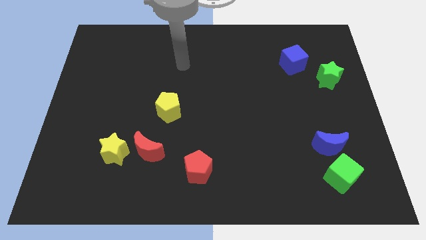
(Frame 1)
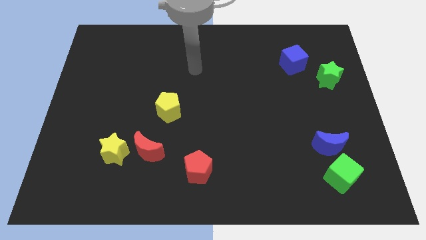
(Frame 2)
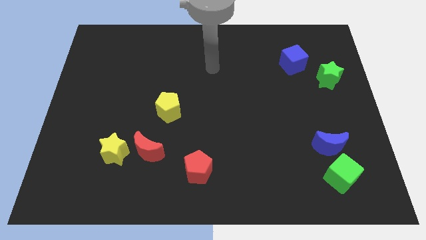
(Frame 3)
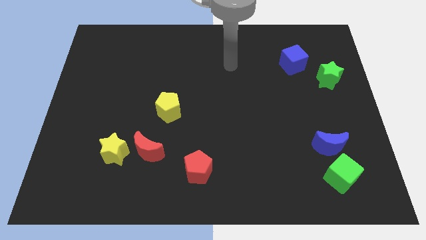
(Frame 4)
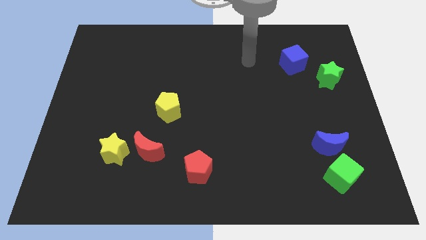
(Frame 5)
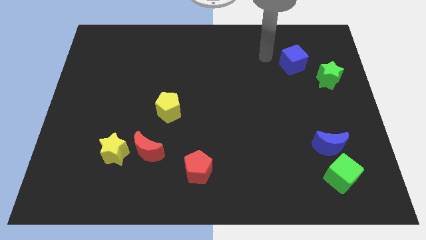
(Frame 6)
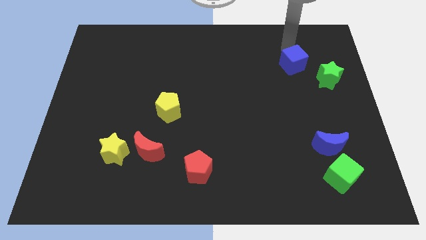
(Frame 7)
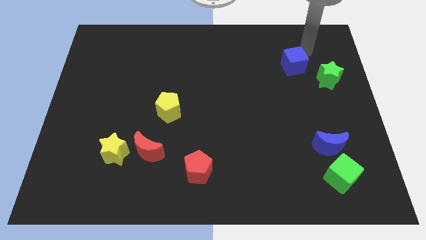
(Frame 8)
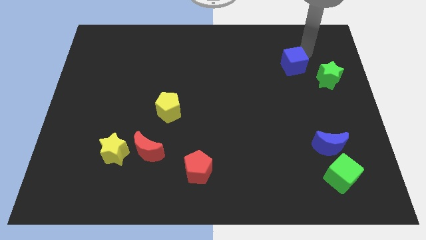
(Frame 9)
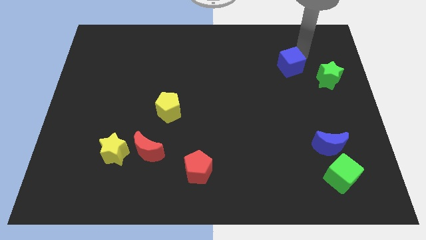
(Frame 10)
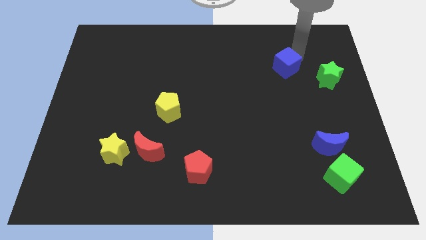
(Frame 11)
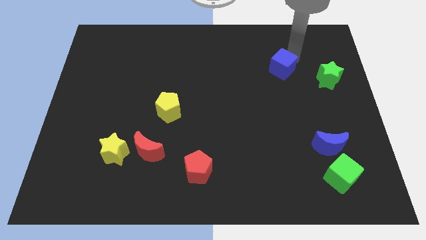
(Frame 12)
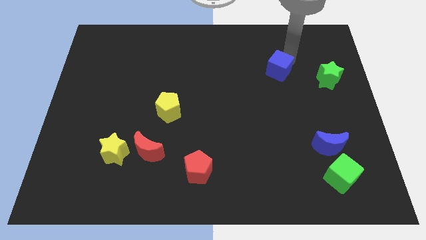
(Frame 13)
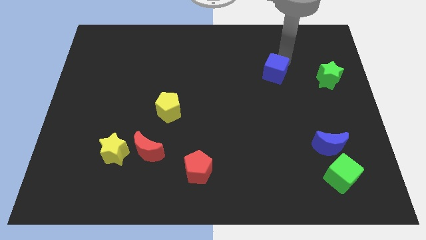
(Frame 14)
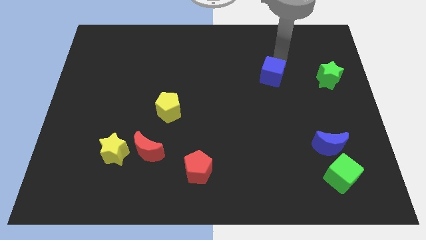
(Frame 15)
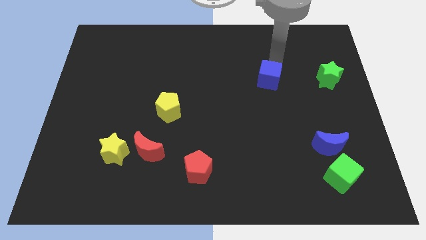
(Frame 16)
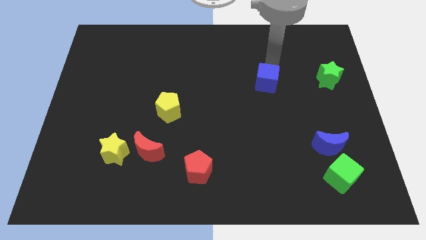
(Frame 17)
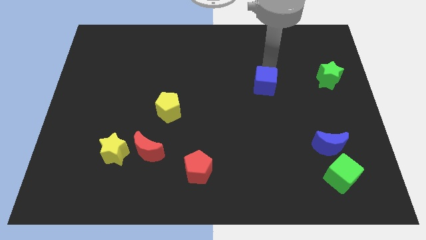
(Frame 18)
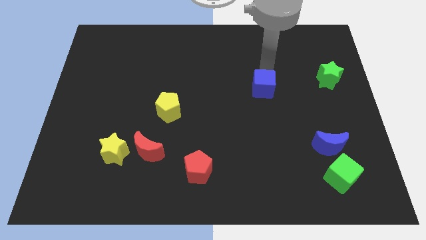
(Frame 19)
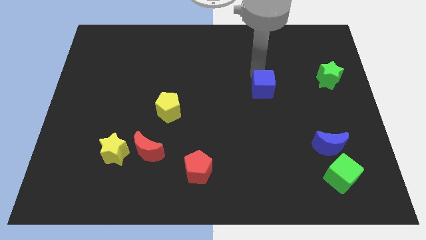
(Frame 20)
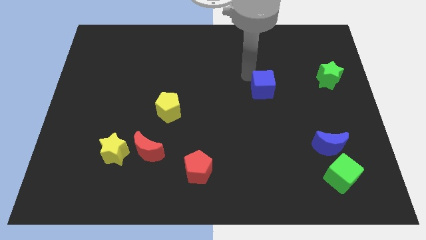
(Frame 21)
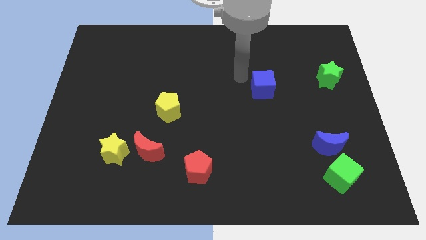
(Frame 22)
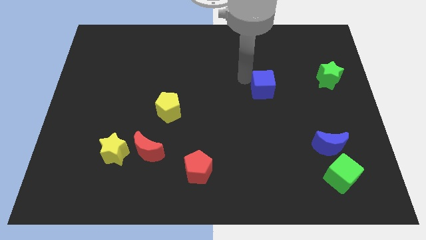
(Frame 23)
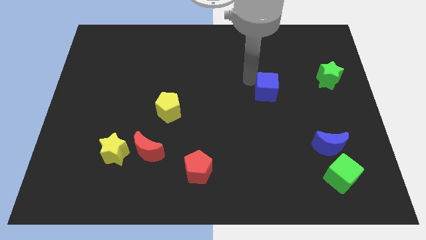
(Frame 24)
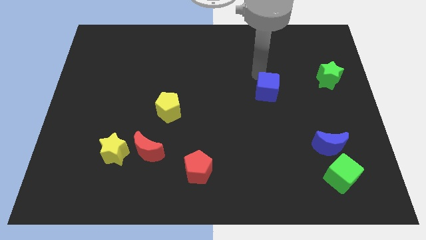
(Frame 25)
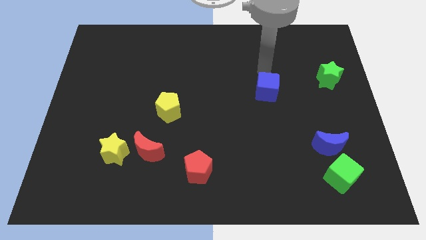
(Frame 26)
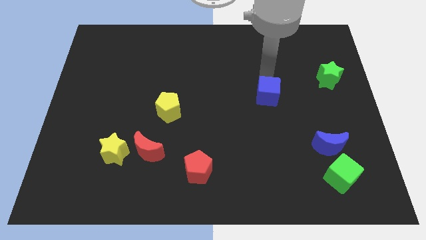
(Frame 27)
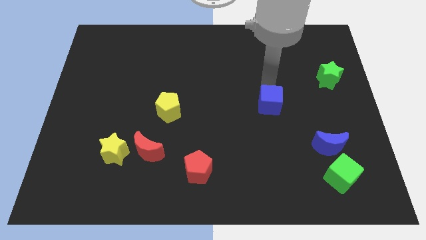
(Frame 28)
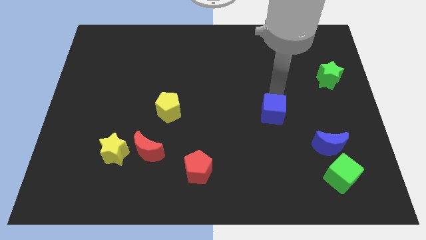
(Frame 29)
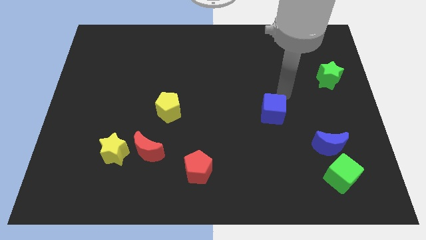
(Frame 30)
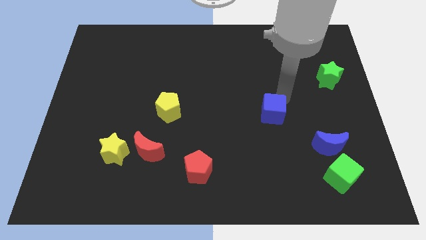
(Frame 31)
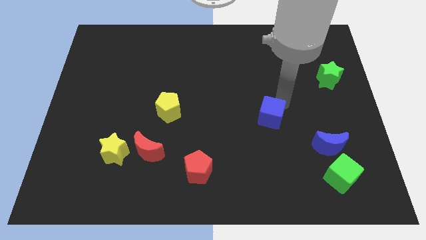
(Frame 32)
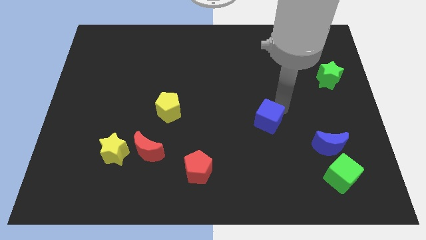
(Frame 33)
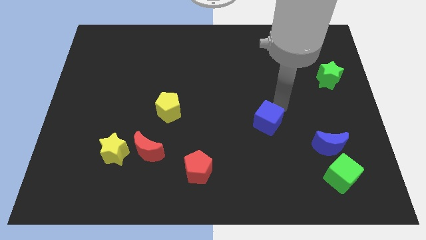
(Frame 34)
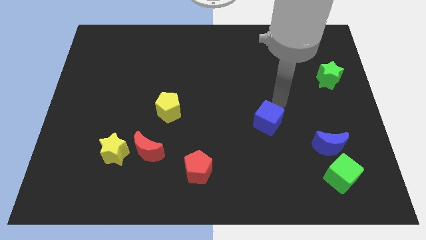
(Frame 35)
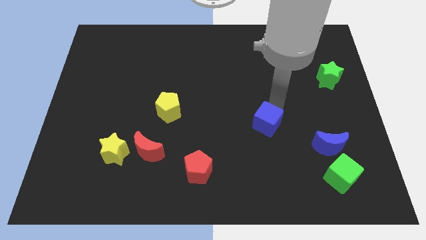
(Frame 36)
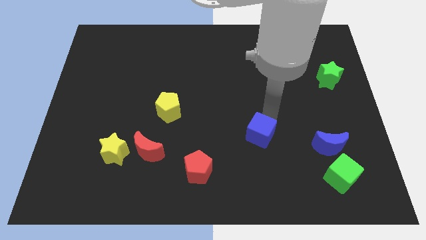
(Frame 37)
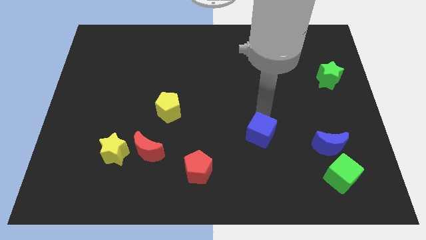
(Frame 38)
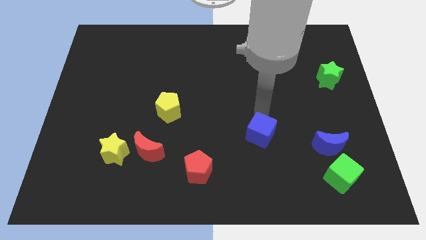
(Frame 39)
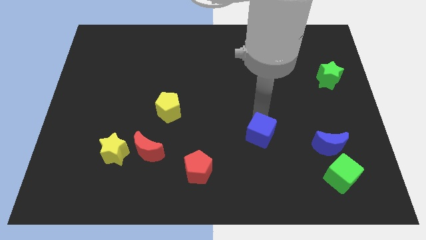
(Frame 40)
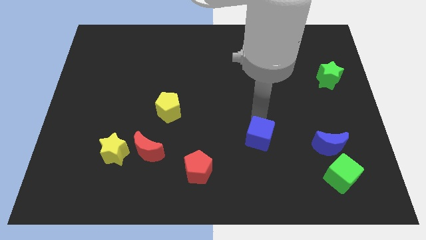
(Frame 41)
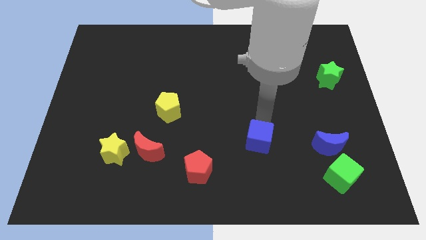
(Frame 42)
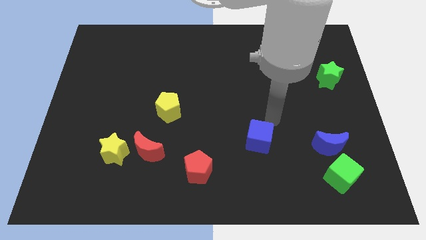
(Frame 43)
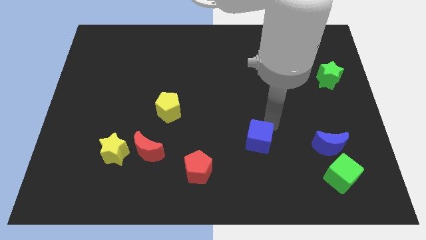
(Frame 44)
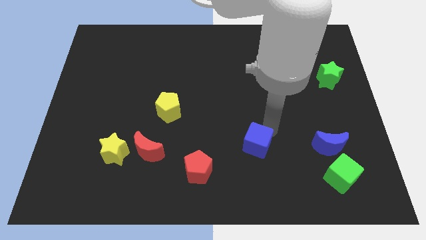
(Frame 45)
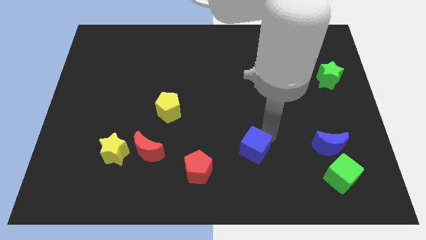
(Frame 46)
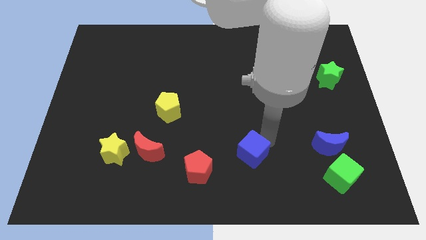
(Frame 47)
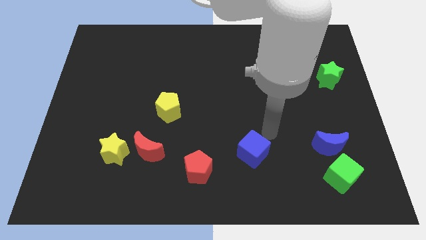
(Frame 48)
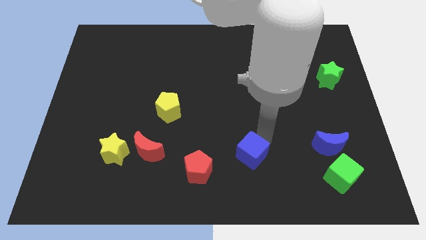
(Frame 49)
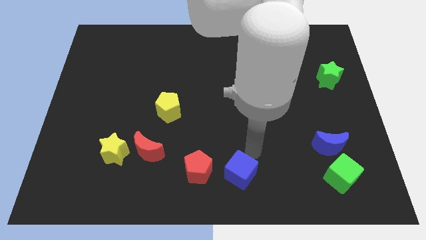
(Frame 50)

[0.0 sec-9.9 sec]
slide the blue cube to the bottom side

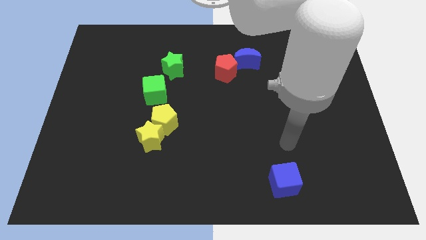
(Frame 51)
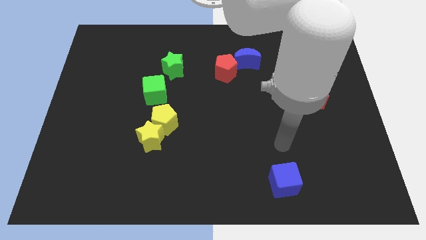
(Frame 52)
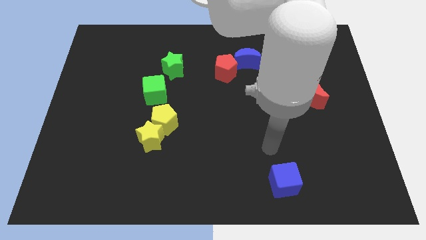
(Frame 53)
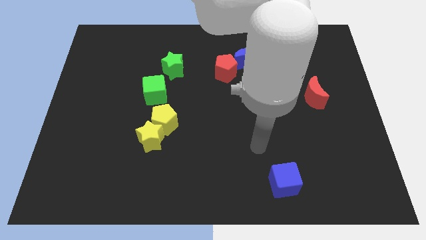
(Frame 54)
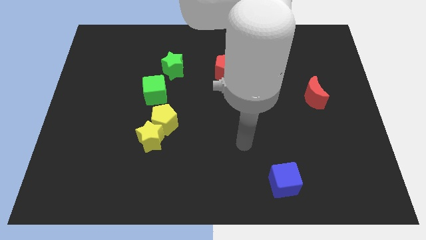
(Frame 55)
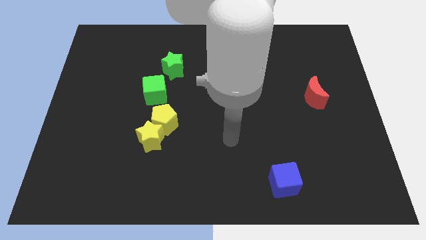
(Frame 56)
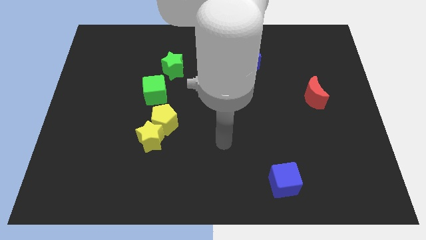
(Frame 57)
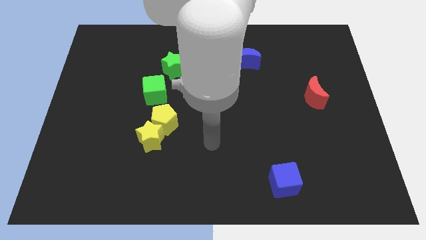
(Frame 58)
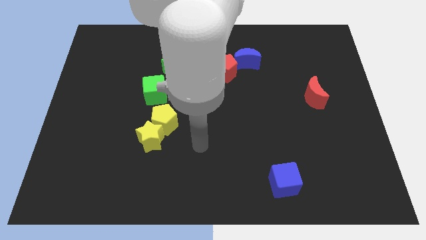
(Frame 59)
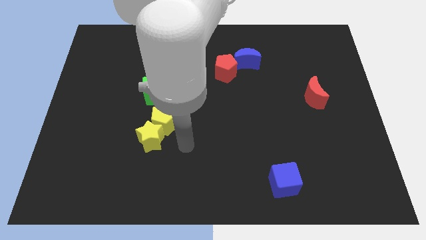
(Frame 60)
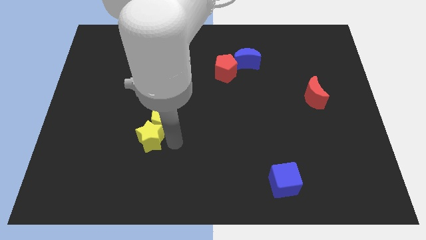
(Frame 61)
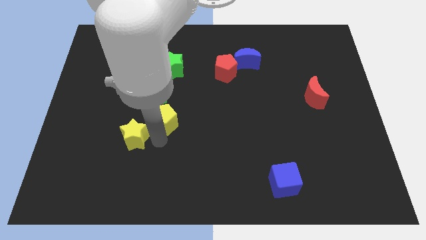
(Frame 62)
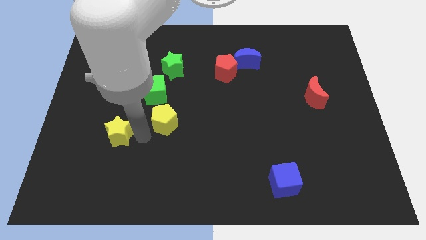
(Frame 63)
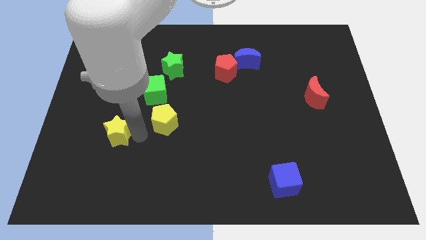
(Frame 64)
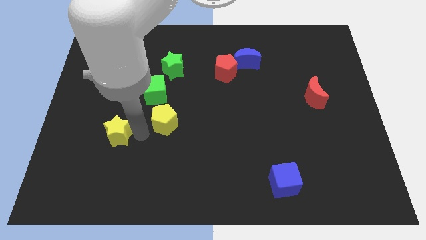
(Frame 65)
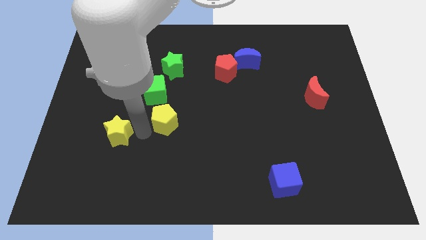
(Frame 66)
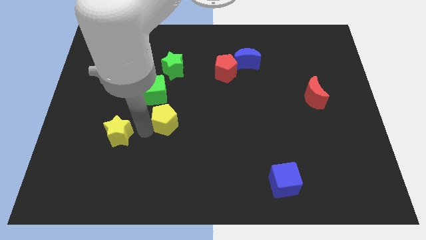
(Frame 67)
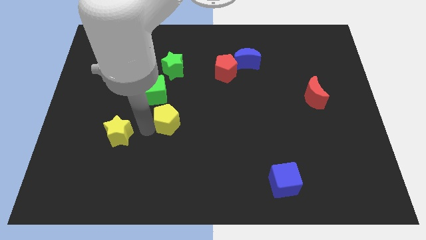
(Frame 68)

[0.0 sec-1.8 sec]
put the yellow pentagon to the center of the board
